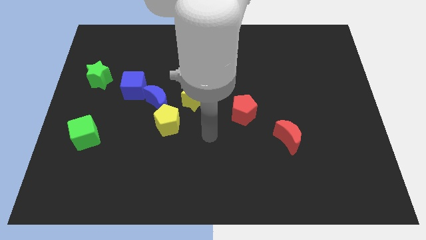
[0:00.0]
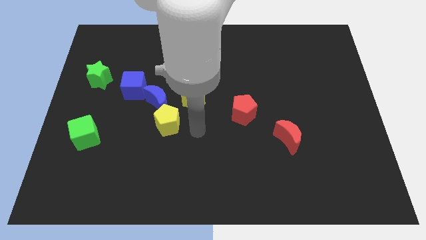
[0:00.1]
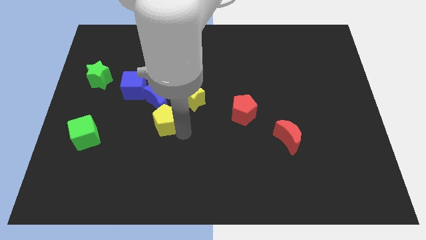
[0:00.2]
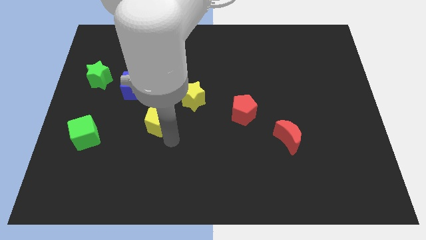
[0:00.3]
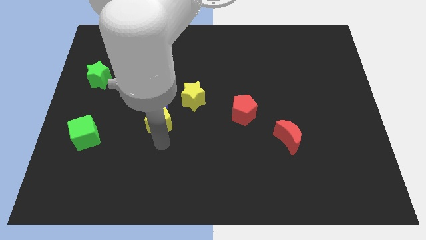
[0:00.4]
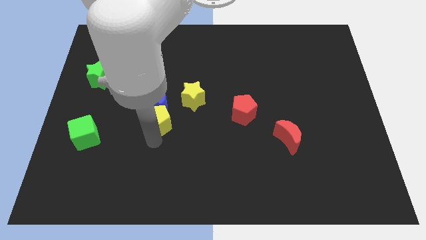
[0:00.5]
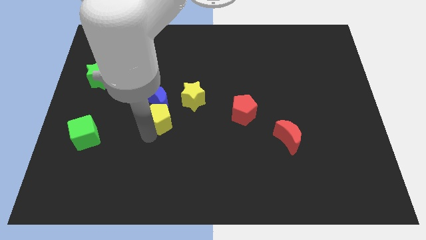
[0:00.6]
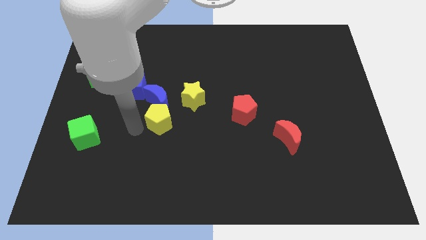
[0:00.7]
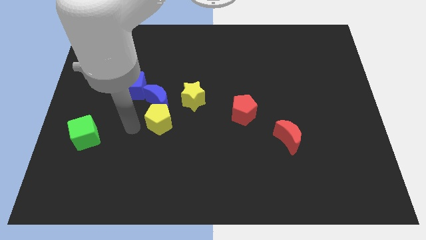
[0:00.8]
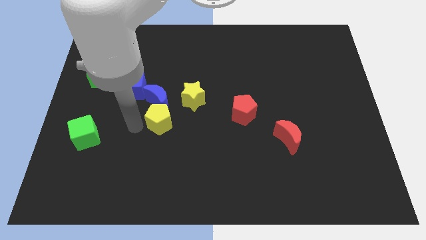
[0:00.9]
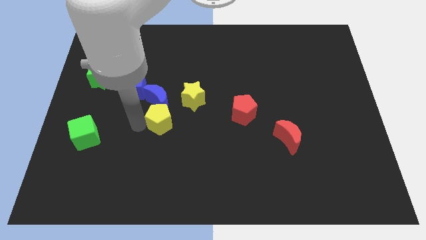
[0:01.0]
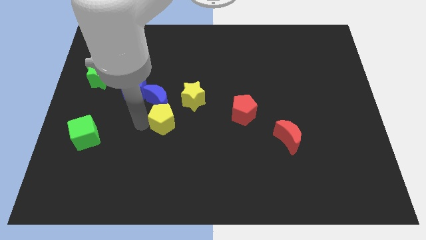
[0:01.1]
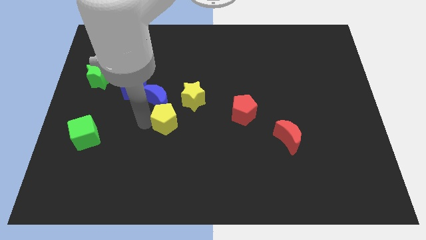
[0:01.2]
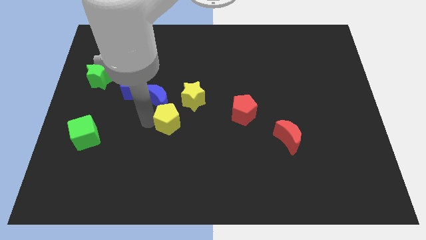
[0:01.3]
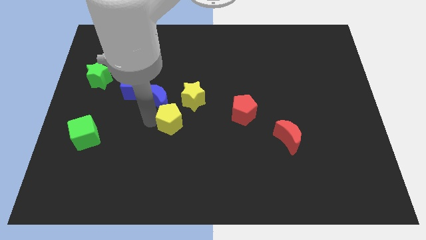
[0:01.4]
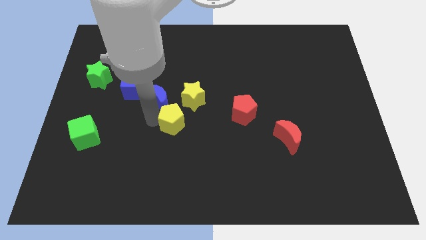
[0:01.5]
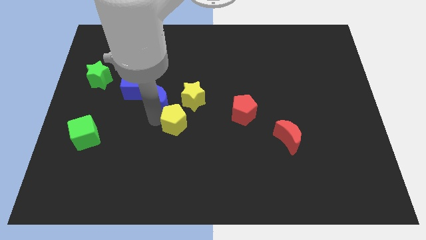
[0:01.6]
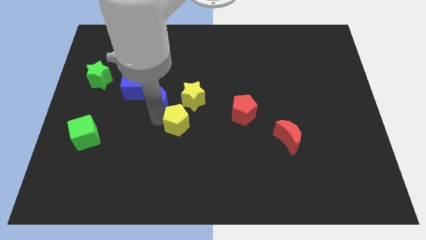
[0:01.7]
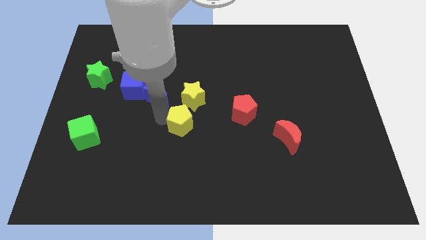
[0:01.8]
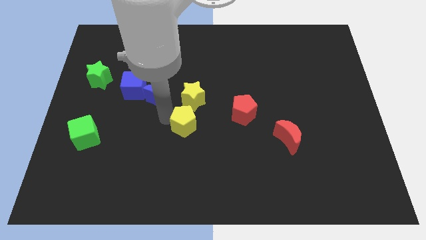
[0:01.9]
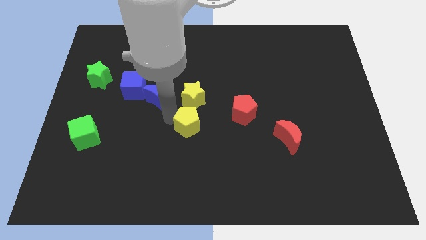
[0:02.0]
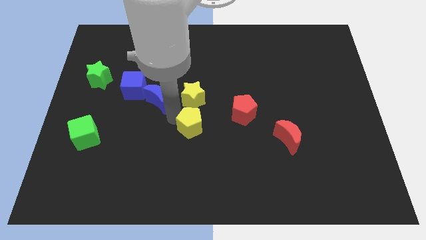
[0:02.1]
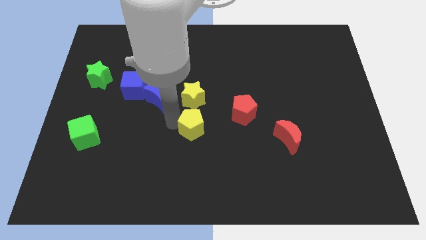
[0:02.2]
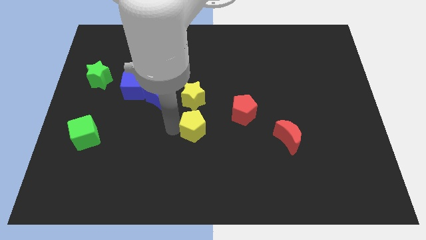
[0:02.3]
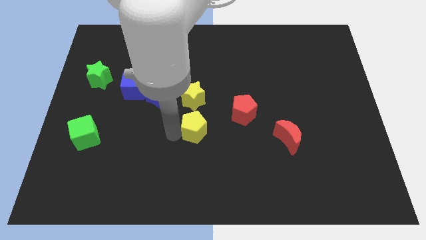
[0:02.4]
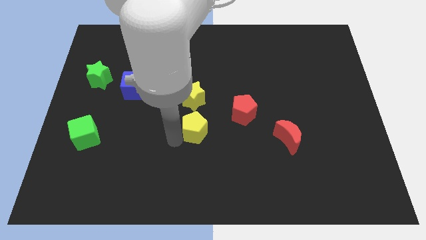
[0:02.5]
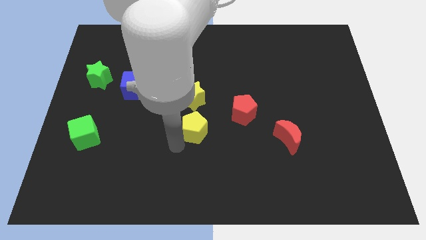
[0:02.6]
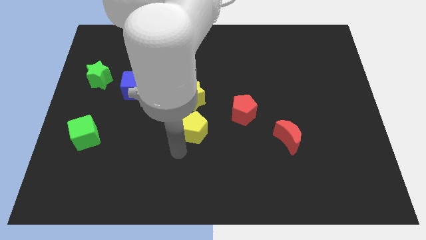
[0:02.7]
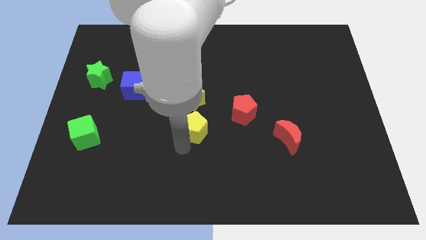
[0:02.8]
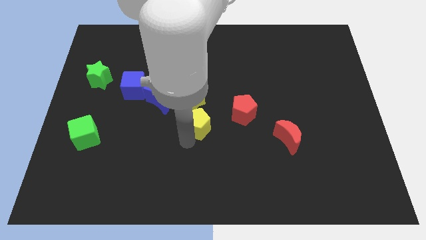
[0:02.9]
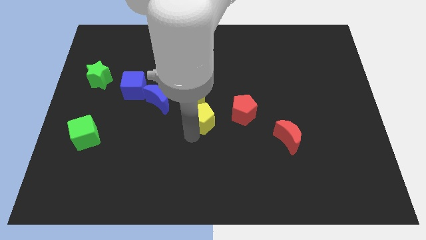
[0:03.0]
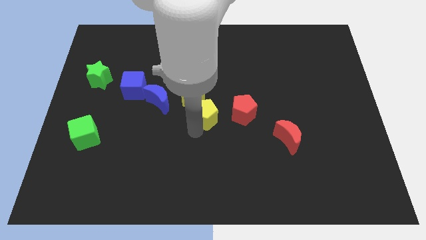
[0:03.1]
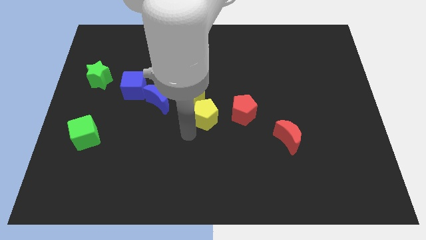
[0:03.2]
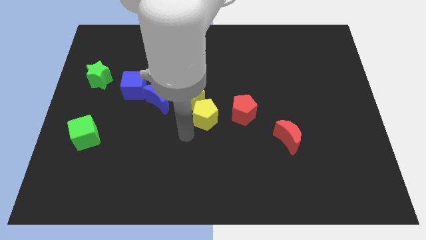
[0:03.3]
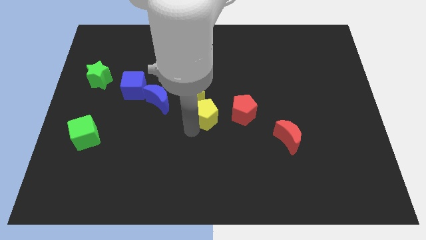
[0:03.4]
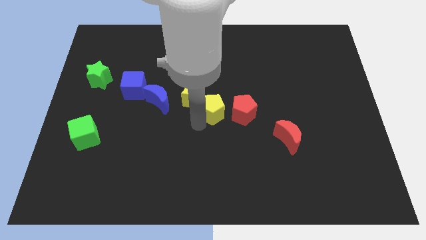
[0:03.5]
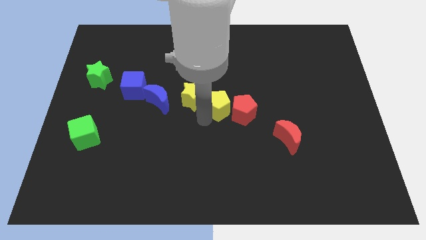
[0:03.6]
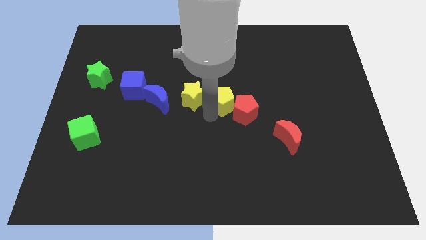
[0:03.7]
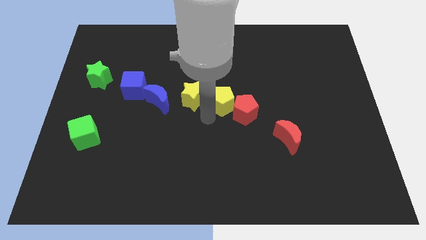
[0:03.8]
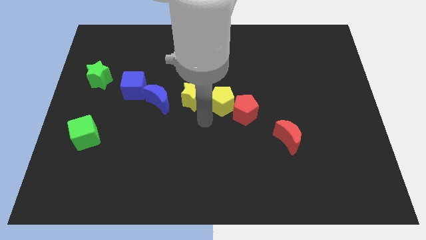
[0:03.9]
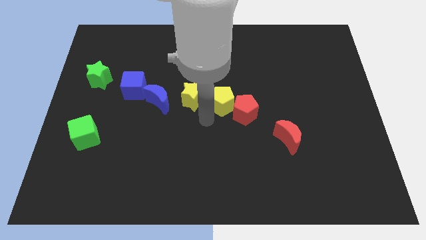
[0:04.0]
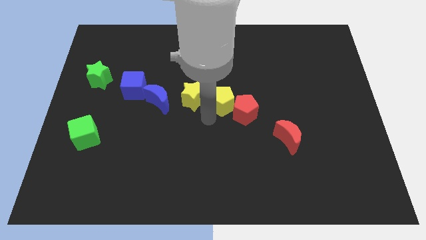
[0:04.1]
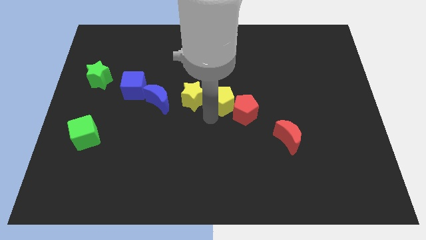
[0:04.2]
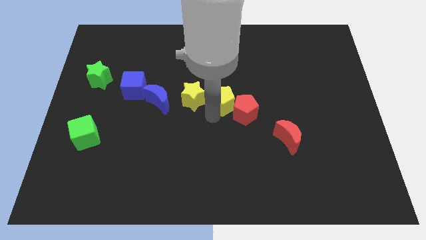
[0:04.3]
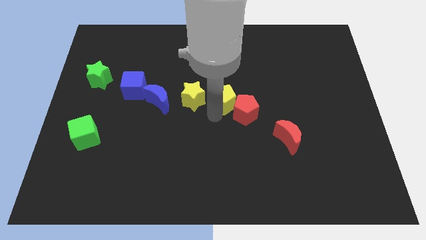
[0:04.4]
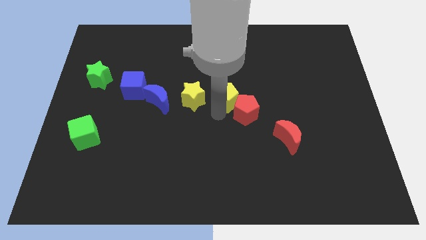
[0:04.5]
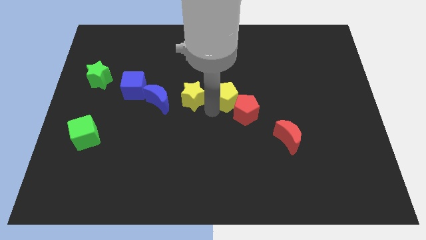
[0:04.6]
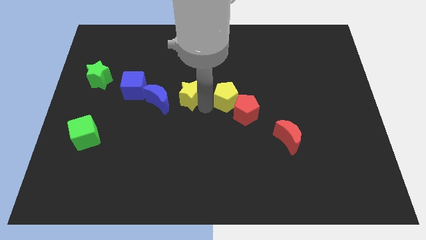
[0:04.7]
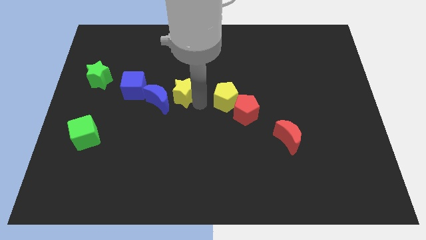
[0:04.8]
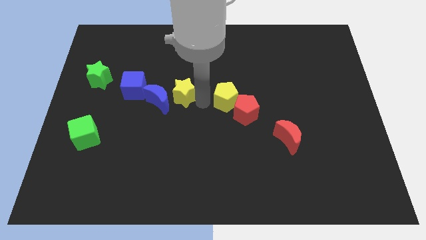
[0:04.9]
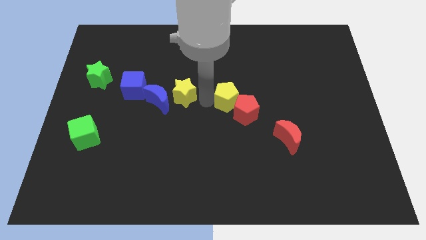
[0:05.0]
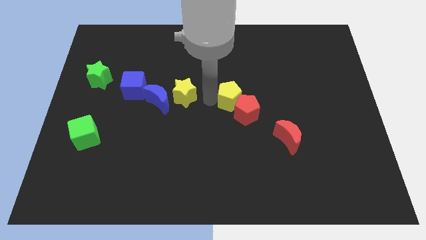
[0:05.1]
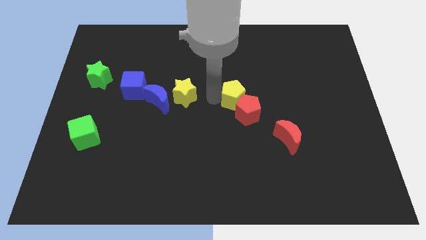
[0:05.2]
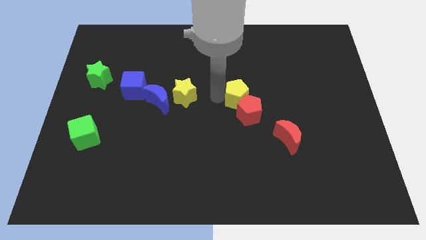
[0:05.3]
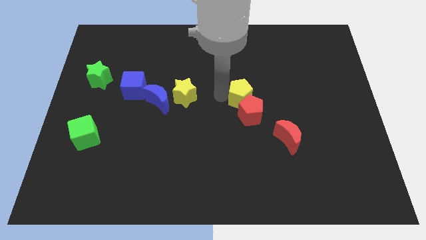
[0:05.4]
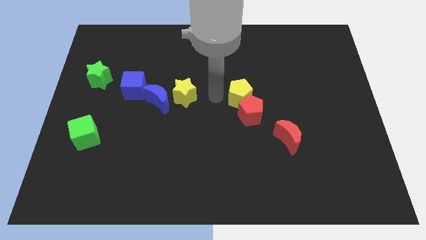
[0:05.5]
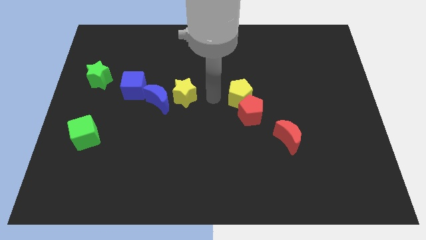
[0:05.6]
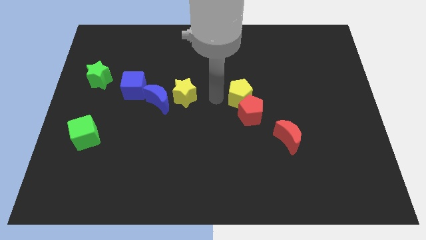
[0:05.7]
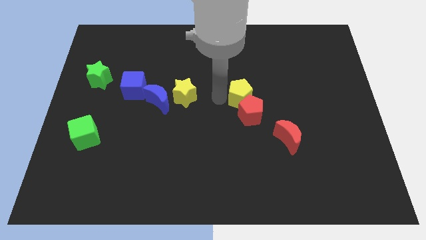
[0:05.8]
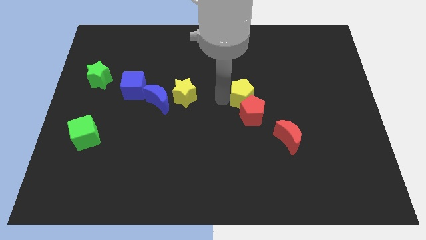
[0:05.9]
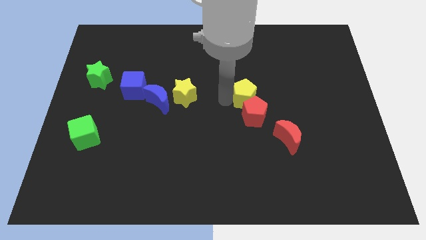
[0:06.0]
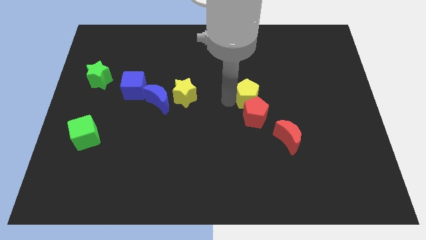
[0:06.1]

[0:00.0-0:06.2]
slide the yellow pentagon diagonally up and to the right of the red pentagon

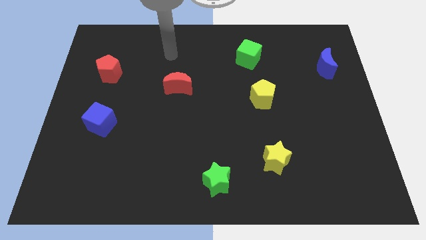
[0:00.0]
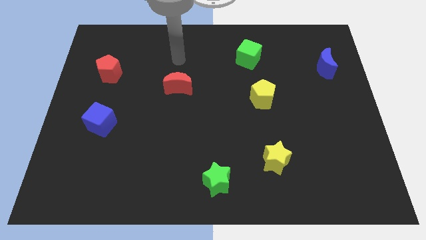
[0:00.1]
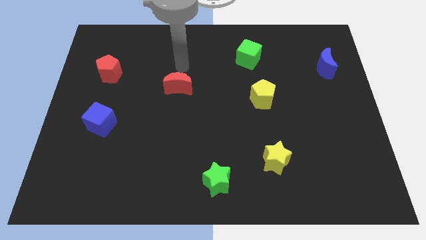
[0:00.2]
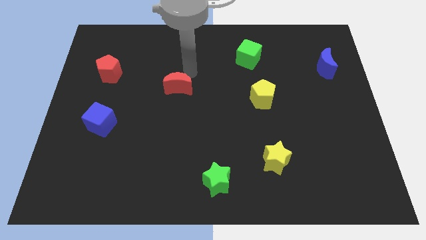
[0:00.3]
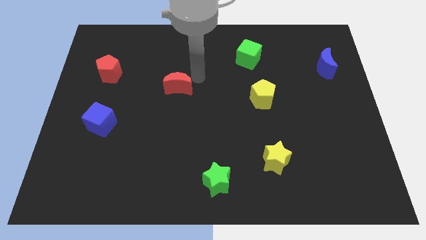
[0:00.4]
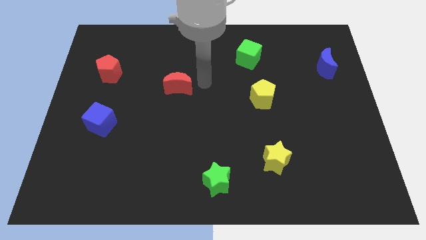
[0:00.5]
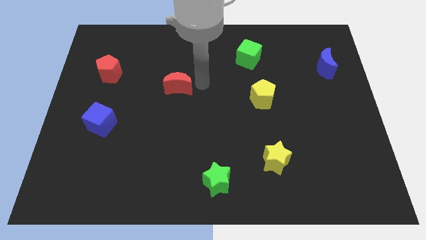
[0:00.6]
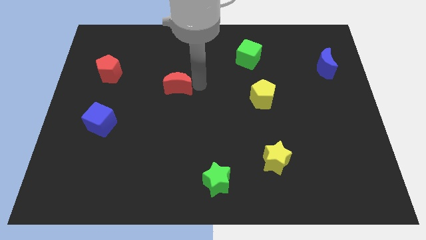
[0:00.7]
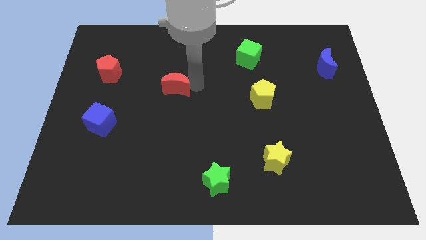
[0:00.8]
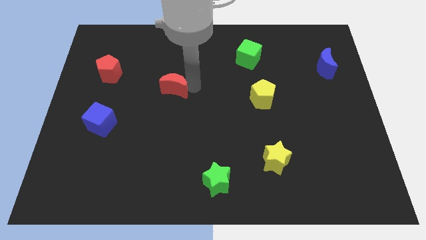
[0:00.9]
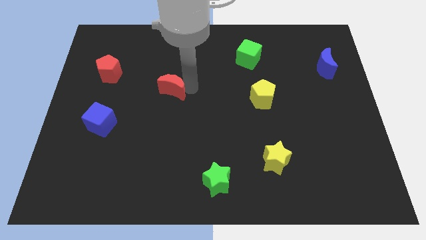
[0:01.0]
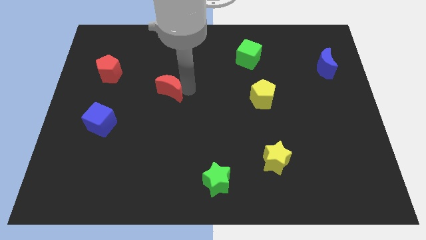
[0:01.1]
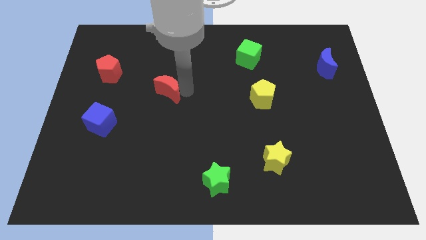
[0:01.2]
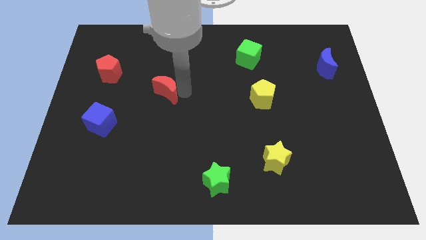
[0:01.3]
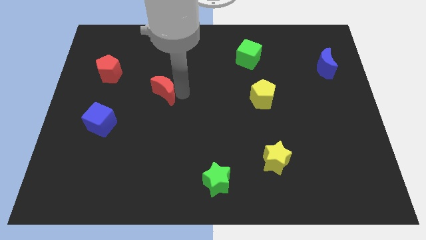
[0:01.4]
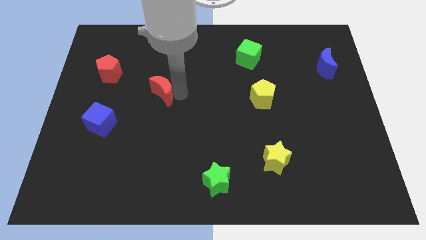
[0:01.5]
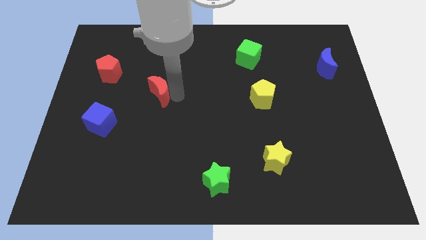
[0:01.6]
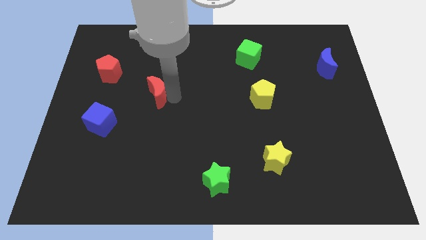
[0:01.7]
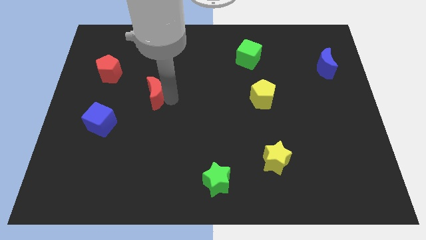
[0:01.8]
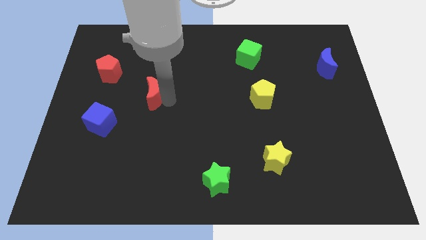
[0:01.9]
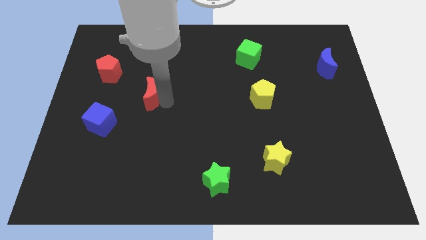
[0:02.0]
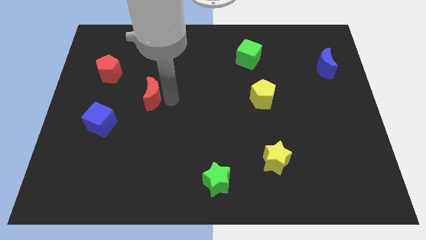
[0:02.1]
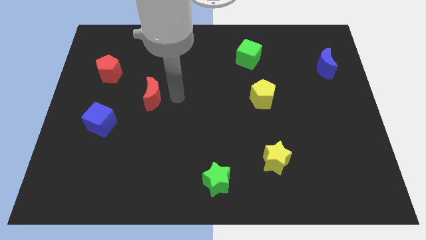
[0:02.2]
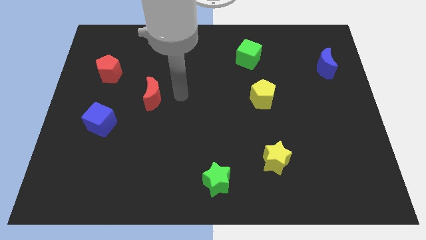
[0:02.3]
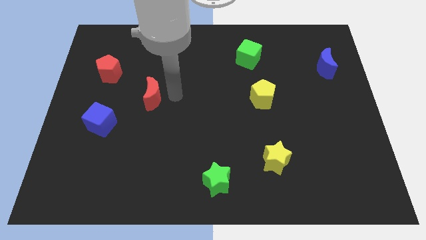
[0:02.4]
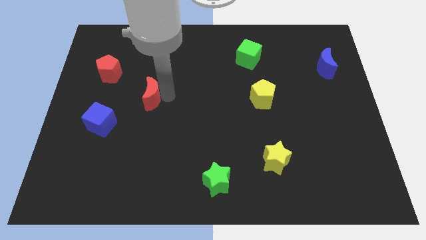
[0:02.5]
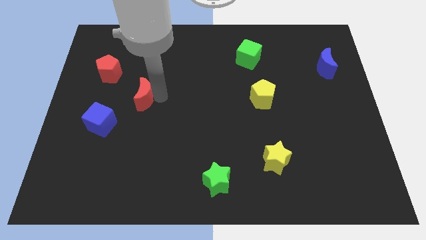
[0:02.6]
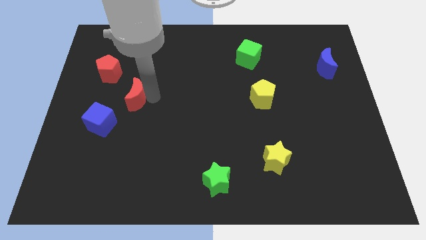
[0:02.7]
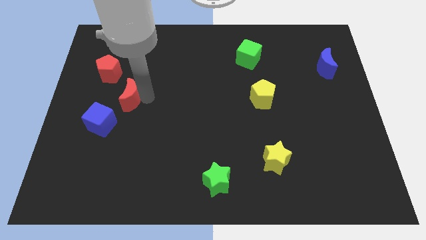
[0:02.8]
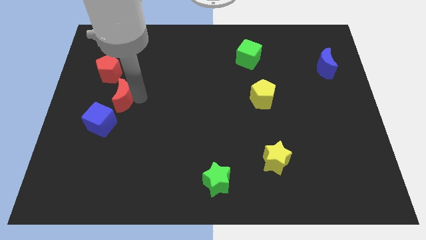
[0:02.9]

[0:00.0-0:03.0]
put the red moon to the bottom of the red pentagon
